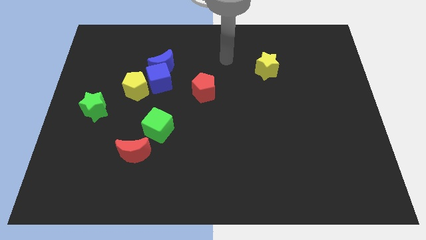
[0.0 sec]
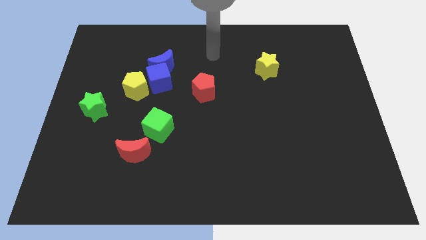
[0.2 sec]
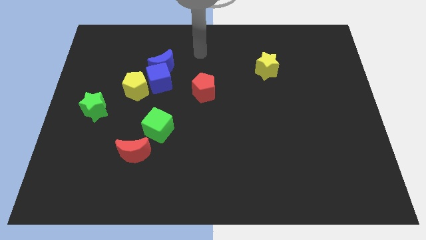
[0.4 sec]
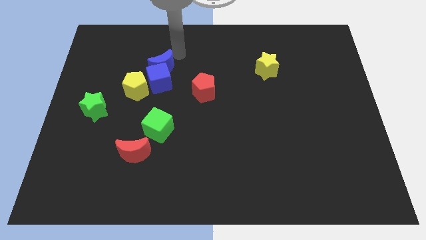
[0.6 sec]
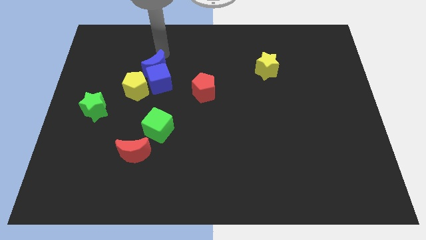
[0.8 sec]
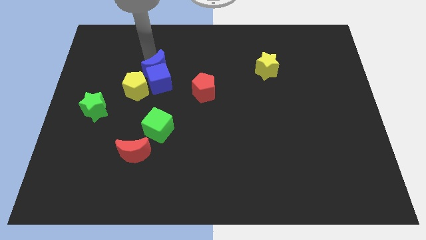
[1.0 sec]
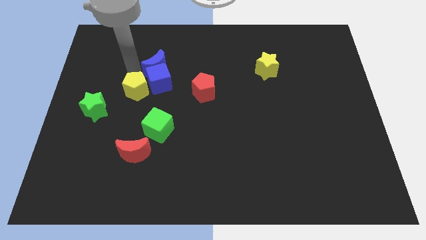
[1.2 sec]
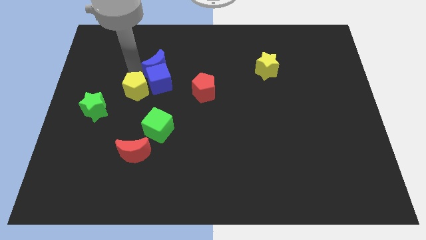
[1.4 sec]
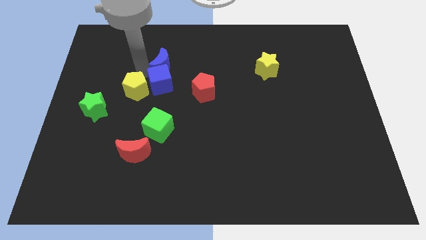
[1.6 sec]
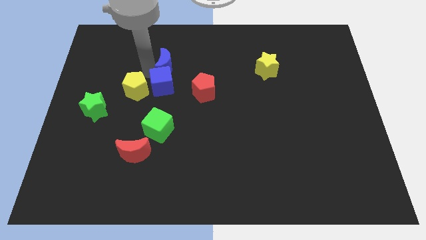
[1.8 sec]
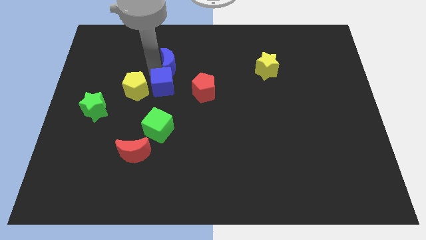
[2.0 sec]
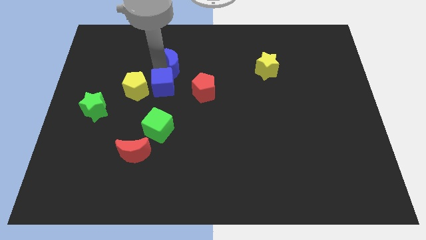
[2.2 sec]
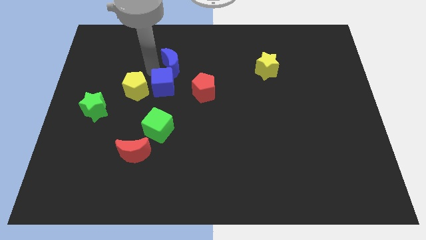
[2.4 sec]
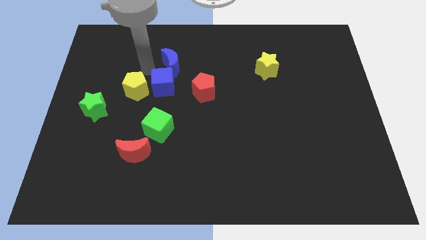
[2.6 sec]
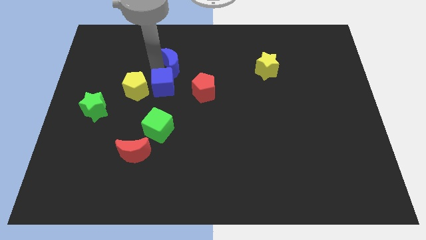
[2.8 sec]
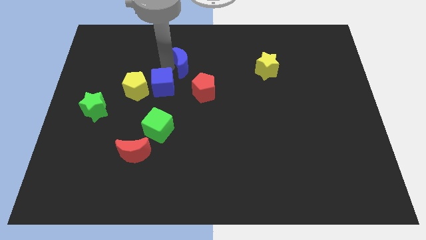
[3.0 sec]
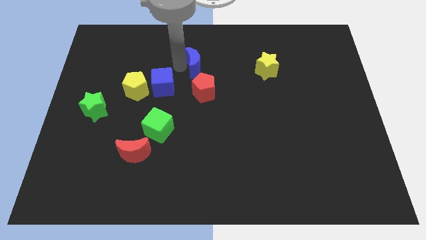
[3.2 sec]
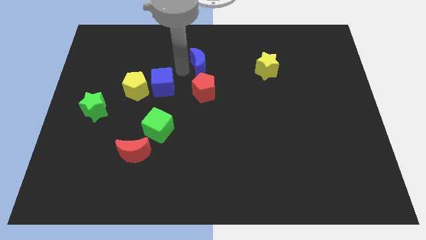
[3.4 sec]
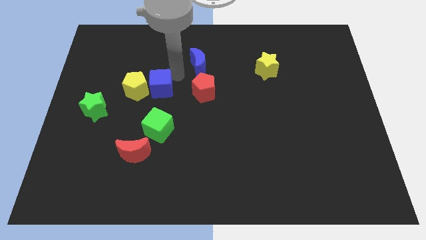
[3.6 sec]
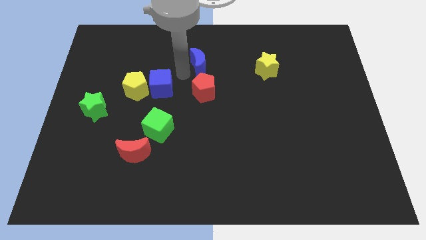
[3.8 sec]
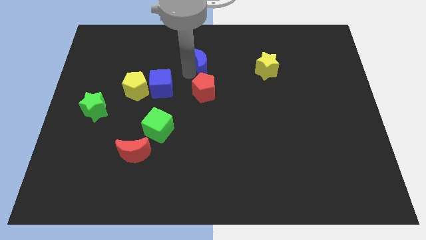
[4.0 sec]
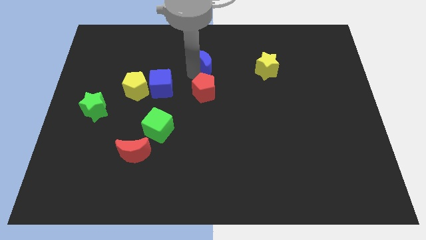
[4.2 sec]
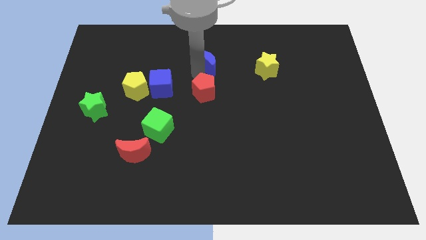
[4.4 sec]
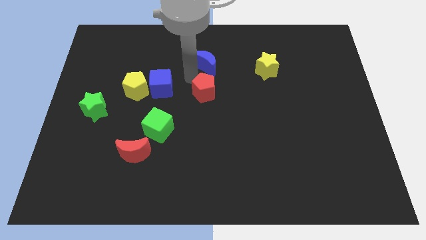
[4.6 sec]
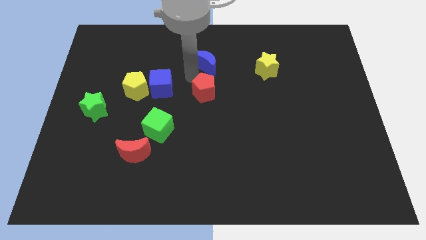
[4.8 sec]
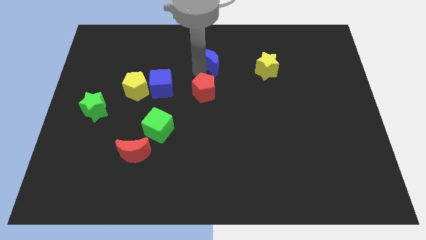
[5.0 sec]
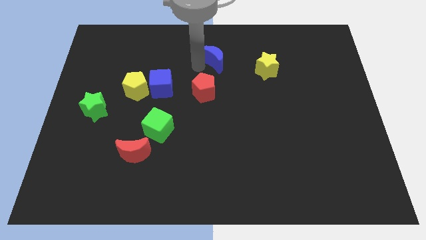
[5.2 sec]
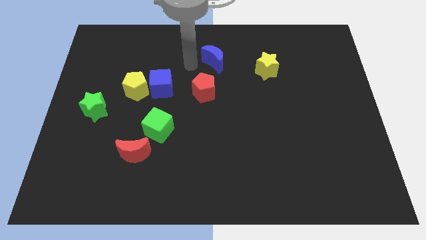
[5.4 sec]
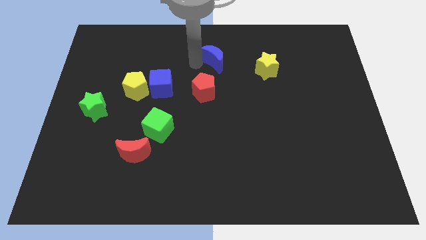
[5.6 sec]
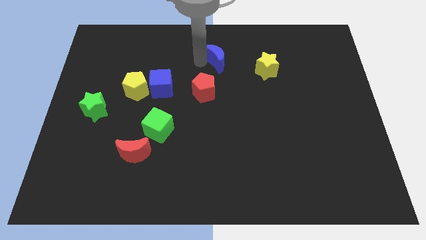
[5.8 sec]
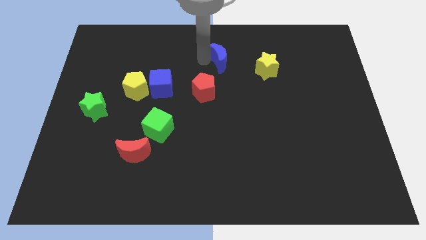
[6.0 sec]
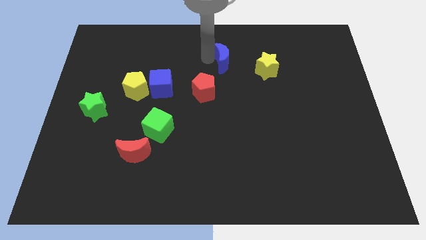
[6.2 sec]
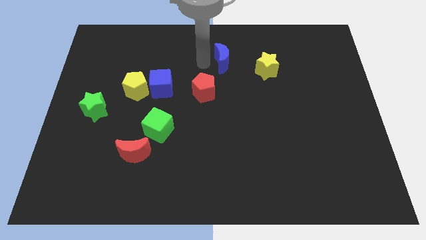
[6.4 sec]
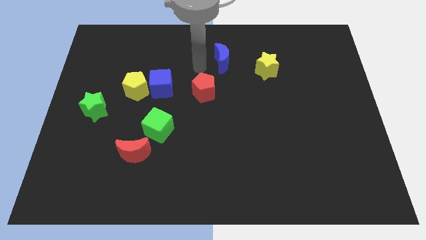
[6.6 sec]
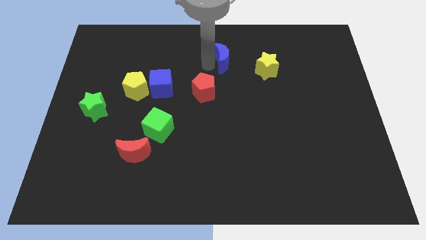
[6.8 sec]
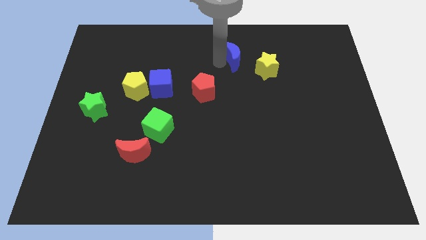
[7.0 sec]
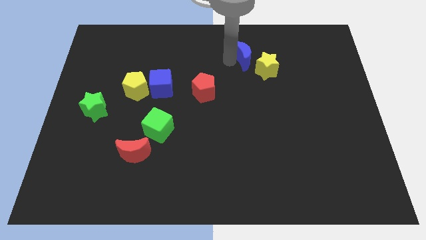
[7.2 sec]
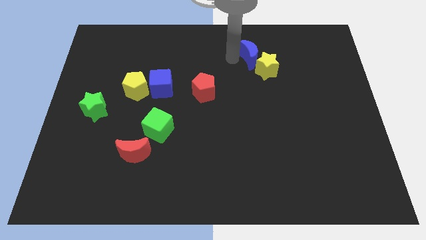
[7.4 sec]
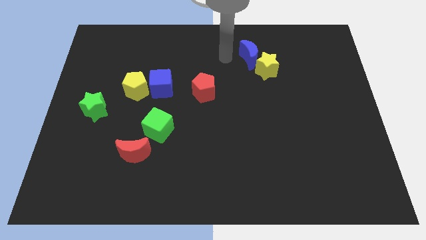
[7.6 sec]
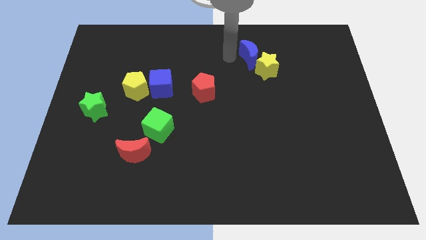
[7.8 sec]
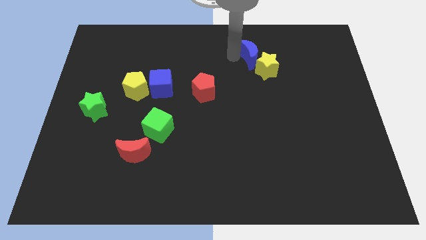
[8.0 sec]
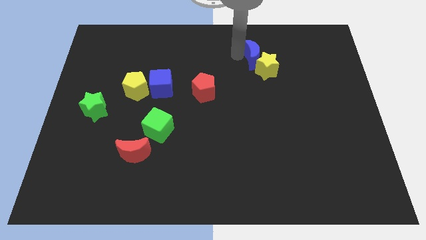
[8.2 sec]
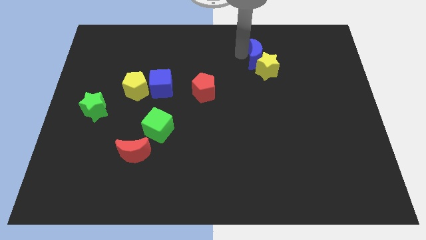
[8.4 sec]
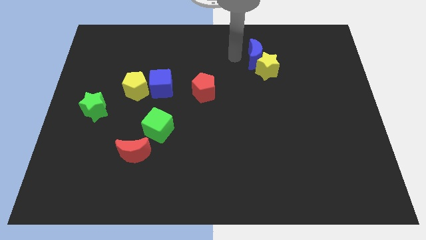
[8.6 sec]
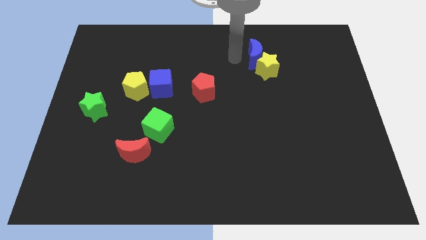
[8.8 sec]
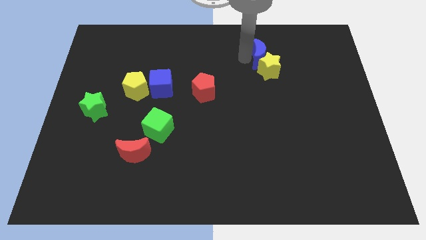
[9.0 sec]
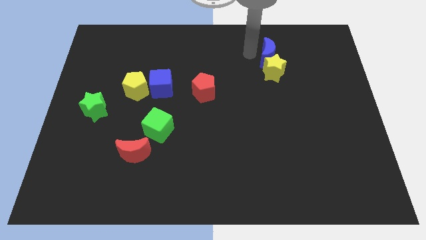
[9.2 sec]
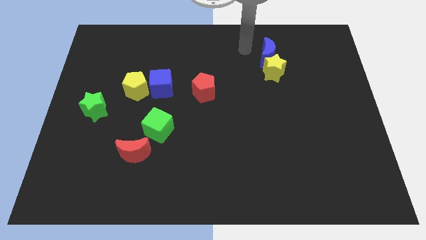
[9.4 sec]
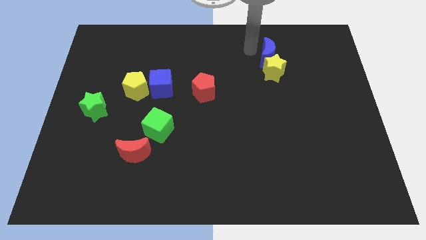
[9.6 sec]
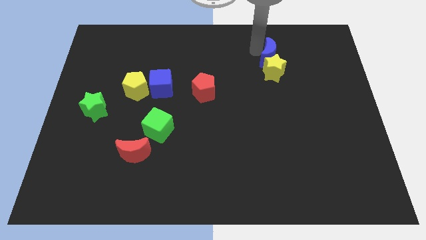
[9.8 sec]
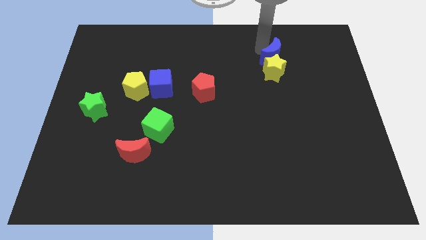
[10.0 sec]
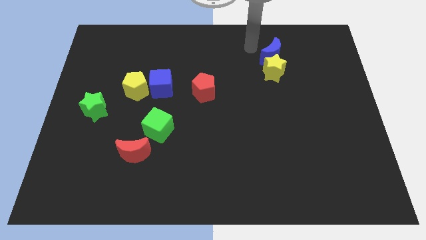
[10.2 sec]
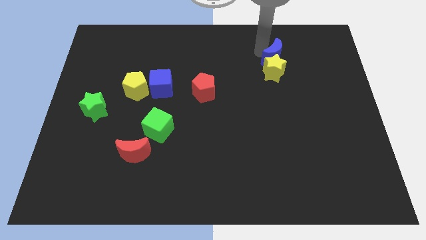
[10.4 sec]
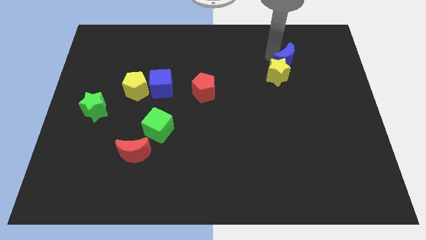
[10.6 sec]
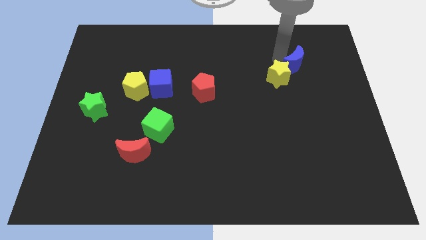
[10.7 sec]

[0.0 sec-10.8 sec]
slide the blue moon right of the yellow star

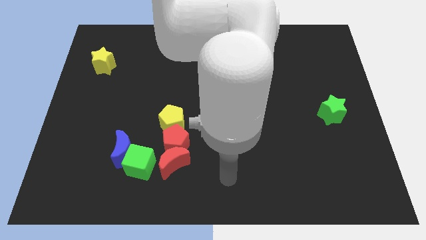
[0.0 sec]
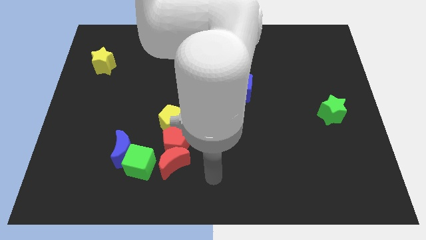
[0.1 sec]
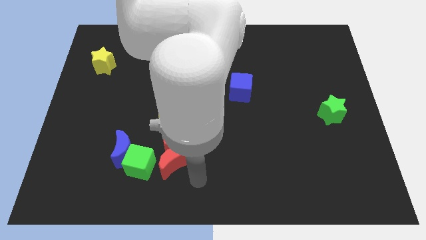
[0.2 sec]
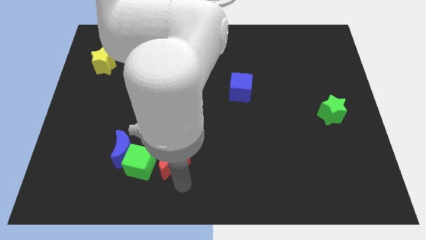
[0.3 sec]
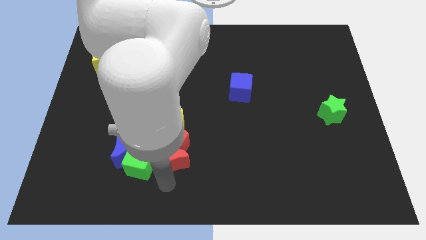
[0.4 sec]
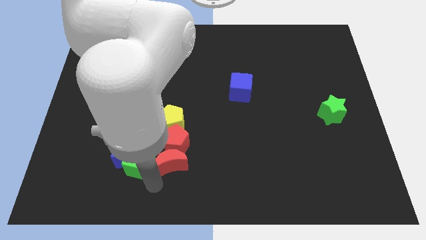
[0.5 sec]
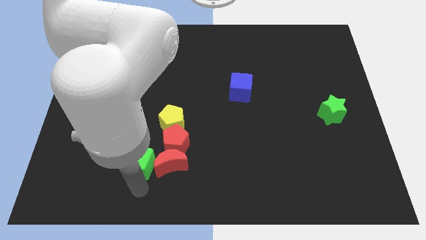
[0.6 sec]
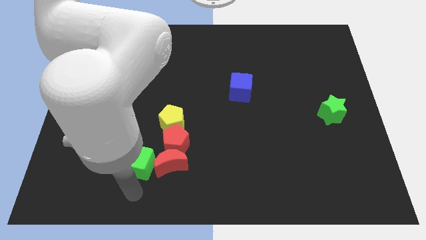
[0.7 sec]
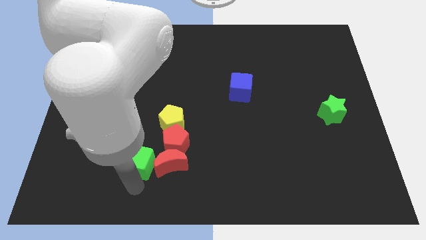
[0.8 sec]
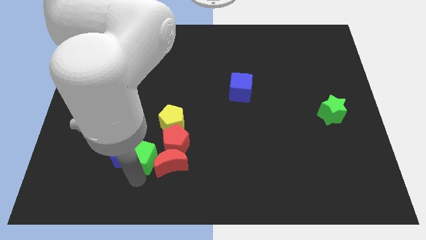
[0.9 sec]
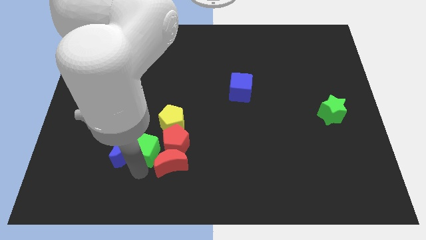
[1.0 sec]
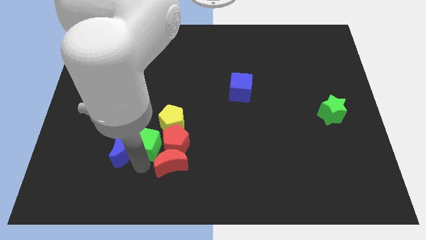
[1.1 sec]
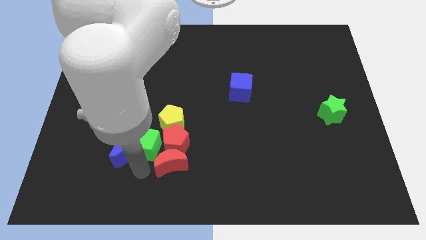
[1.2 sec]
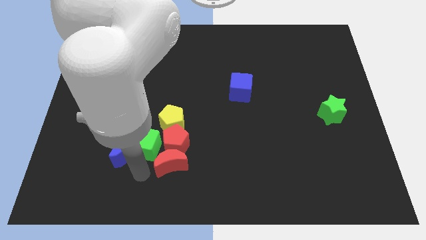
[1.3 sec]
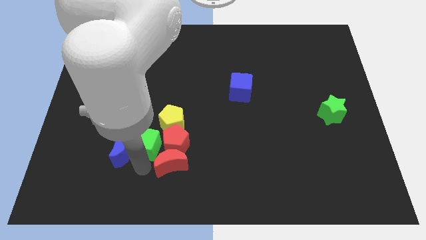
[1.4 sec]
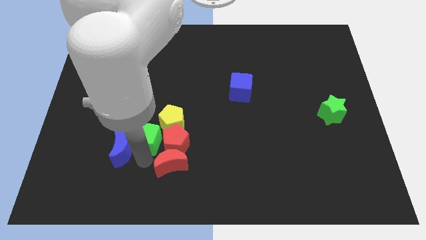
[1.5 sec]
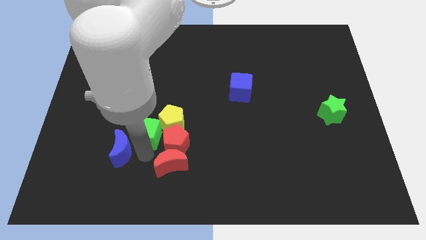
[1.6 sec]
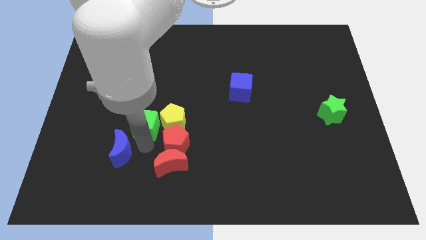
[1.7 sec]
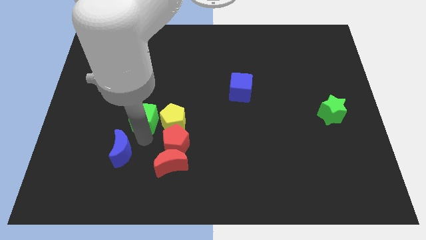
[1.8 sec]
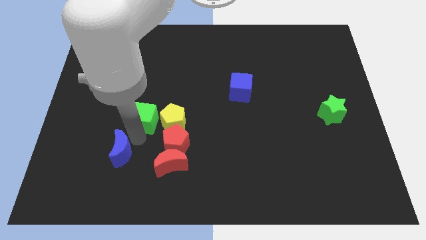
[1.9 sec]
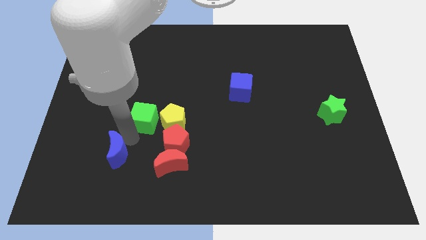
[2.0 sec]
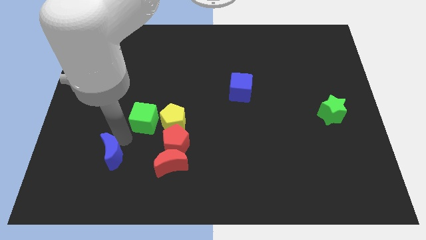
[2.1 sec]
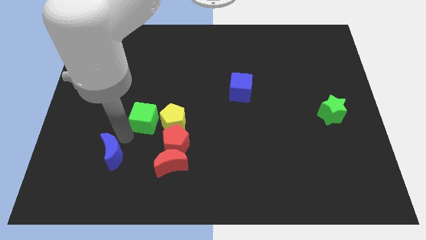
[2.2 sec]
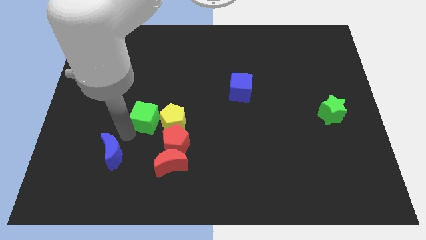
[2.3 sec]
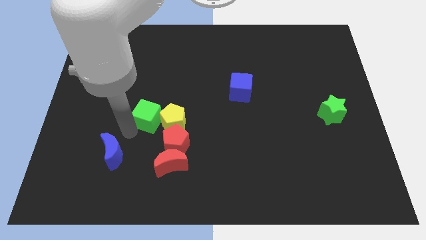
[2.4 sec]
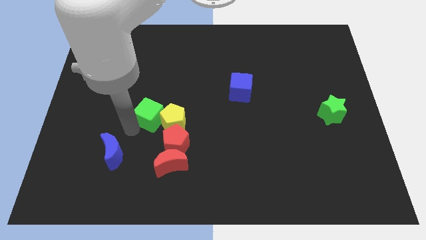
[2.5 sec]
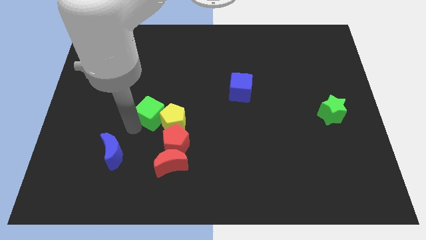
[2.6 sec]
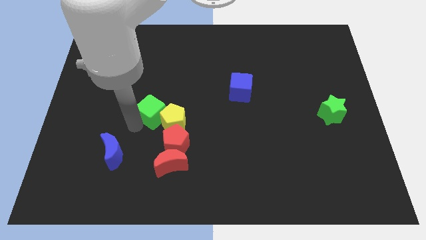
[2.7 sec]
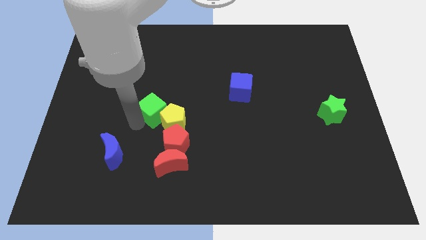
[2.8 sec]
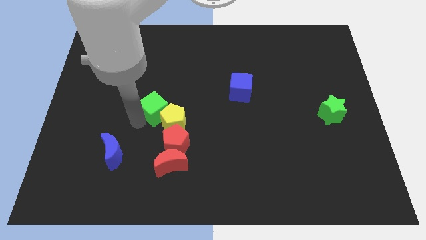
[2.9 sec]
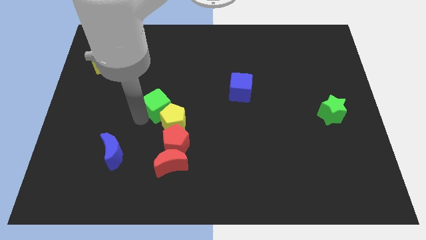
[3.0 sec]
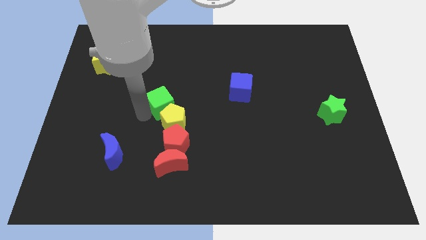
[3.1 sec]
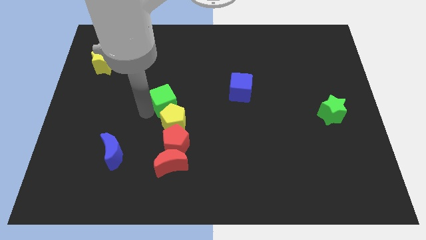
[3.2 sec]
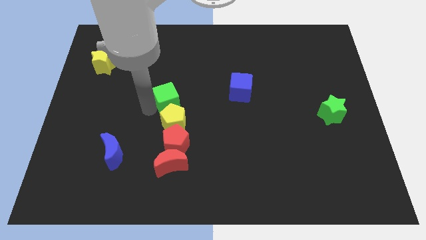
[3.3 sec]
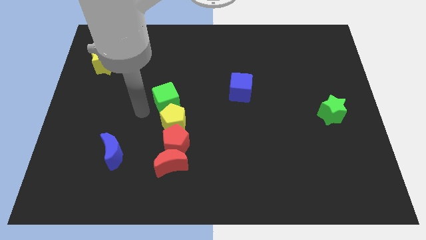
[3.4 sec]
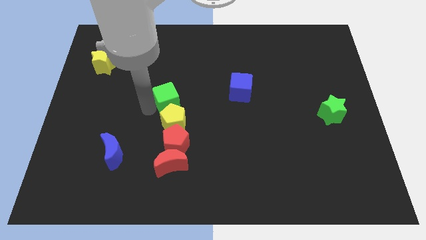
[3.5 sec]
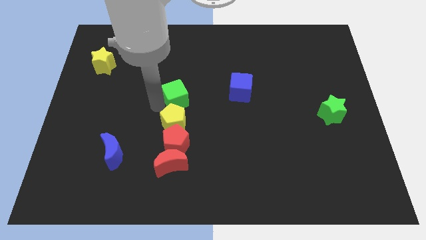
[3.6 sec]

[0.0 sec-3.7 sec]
put the green cube to the left side of the blue cube
